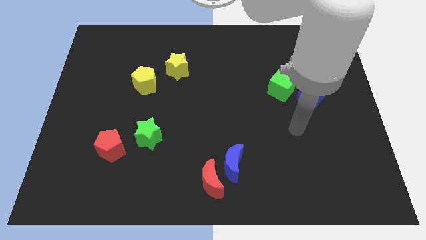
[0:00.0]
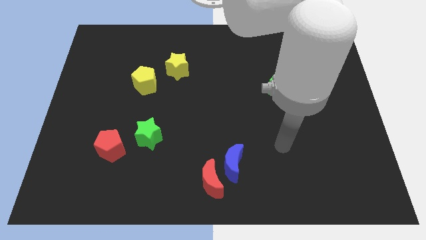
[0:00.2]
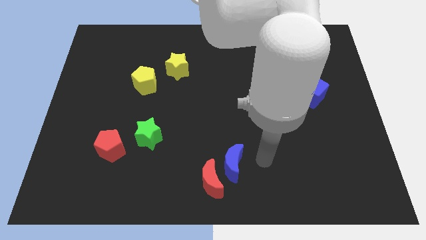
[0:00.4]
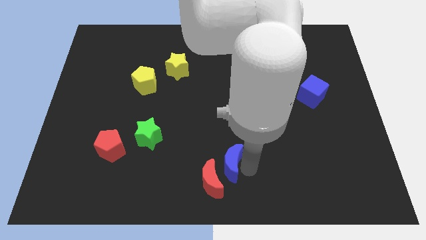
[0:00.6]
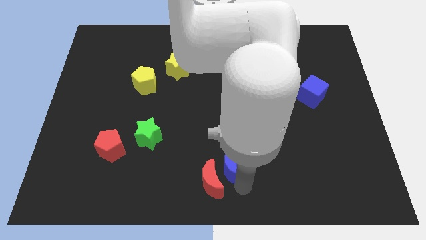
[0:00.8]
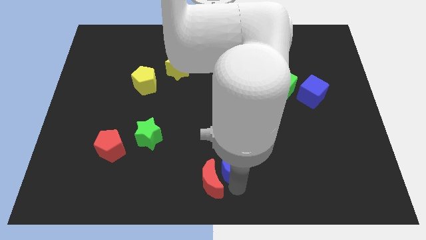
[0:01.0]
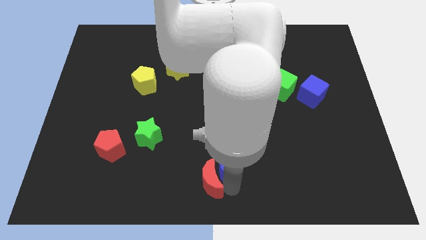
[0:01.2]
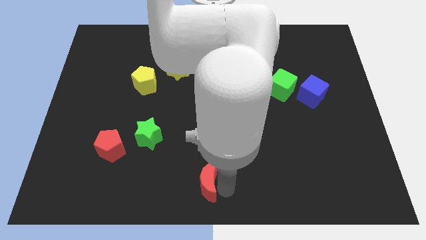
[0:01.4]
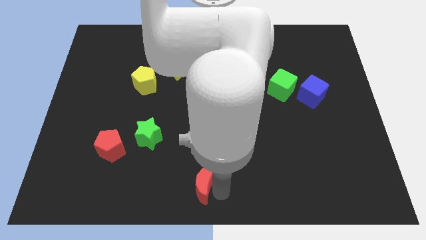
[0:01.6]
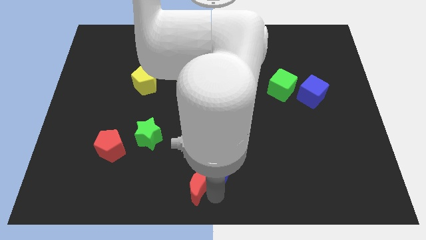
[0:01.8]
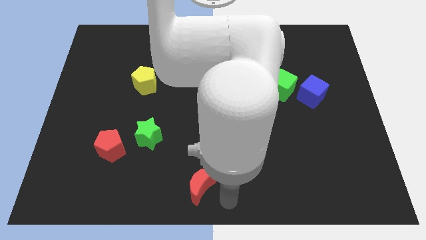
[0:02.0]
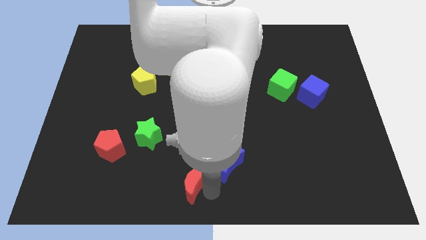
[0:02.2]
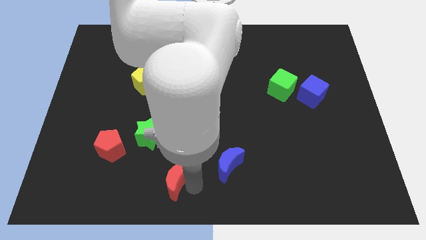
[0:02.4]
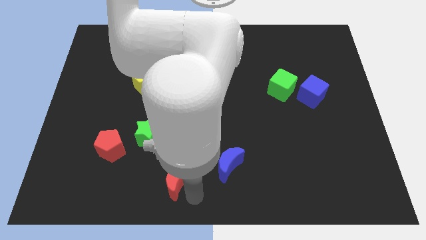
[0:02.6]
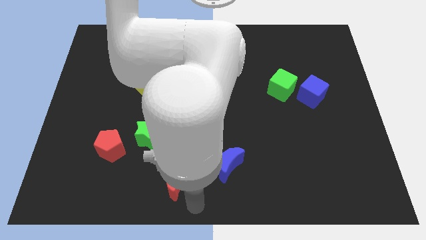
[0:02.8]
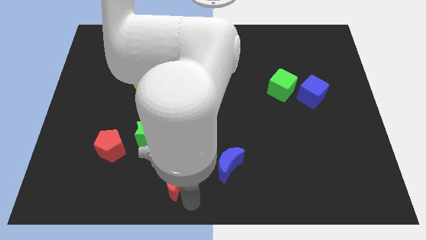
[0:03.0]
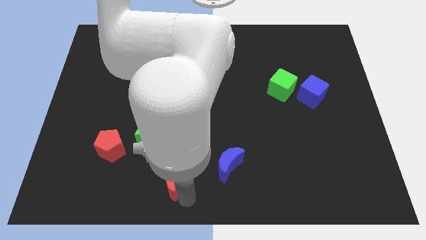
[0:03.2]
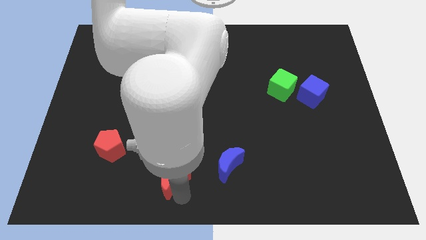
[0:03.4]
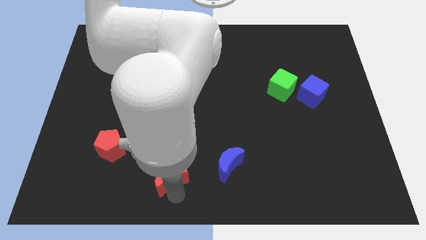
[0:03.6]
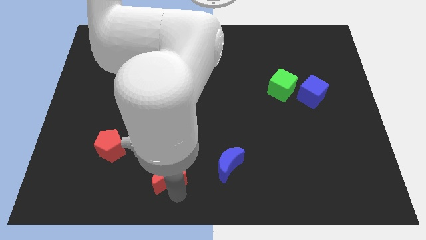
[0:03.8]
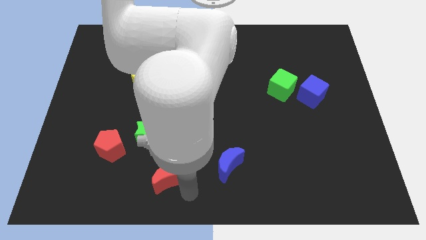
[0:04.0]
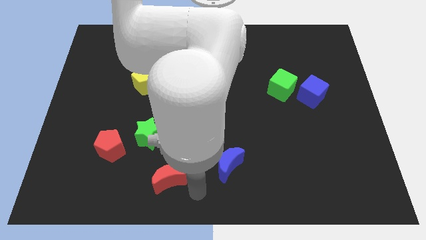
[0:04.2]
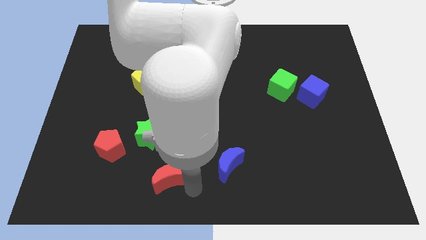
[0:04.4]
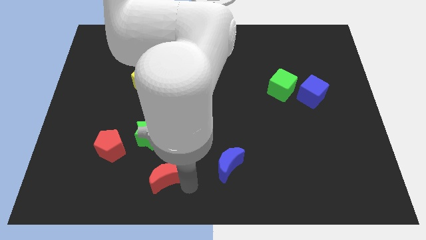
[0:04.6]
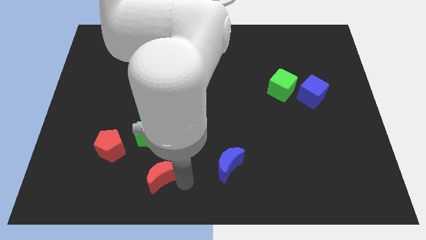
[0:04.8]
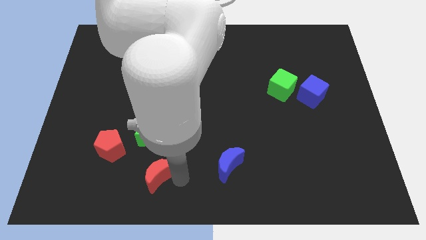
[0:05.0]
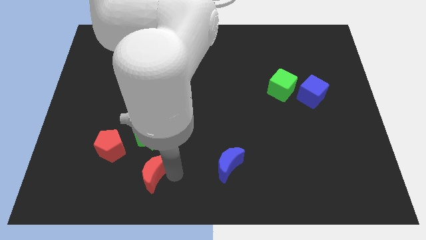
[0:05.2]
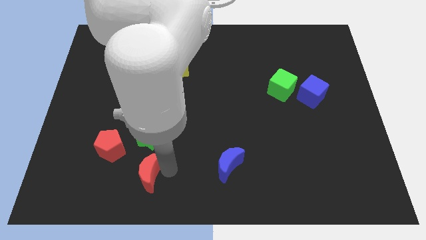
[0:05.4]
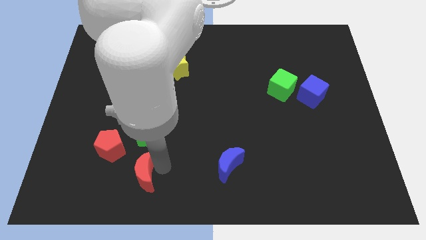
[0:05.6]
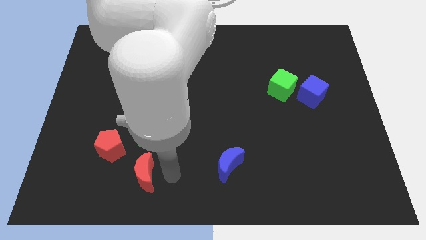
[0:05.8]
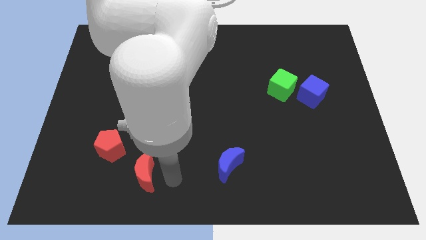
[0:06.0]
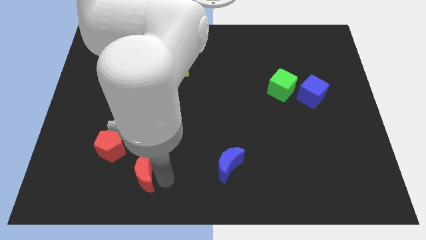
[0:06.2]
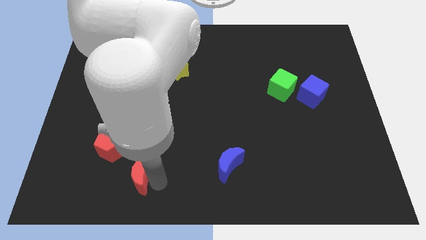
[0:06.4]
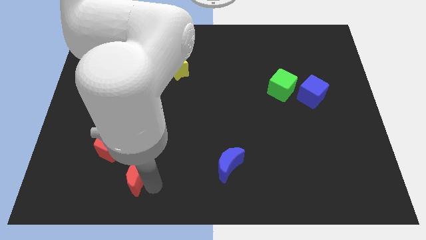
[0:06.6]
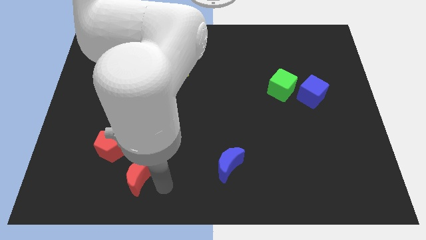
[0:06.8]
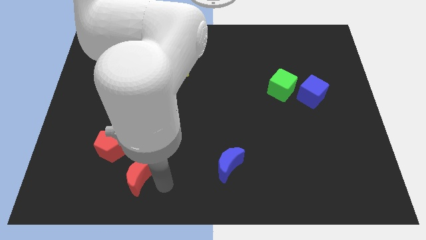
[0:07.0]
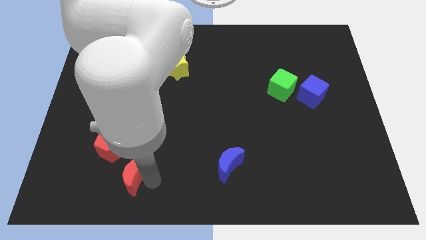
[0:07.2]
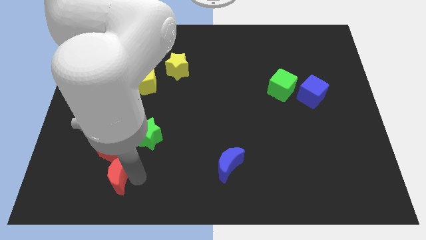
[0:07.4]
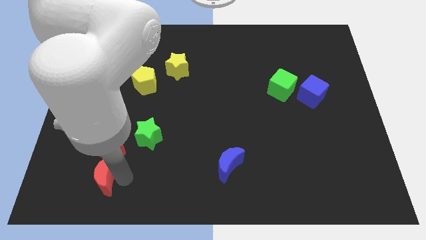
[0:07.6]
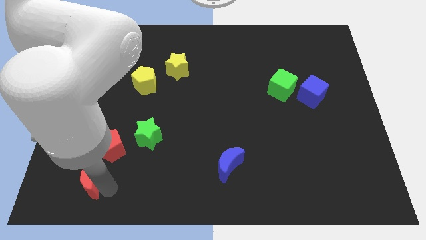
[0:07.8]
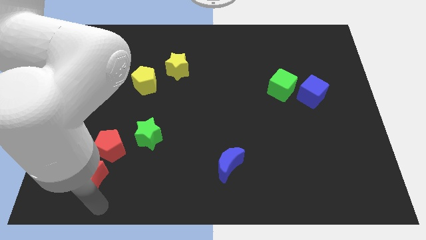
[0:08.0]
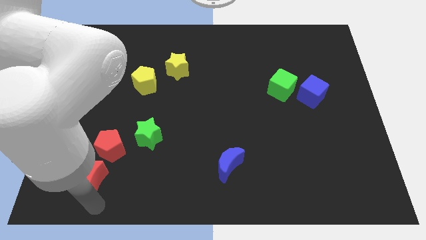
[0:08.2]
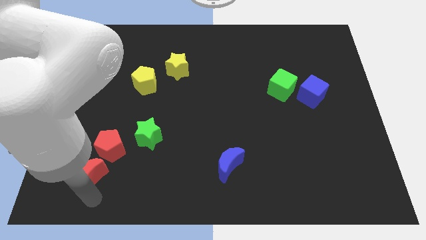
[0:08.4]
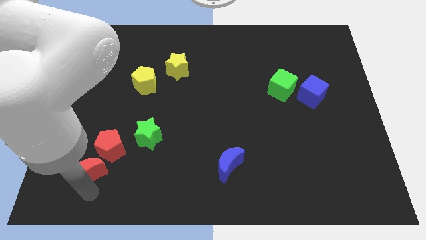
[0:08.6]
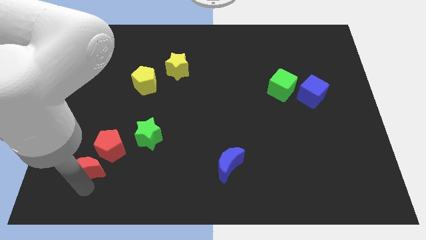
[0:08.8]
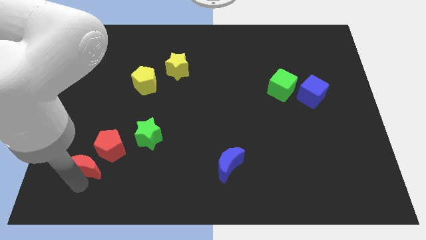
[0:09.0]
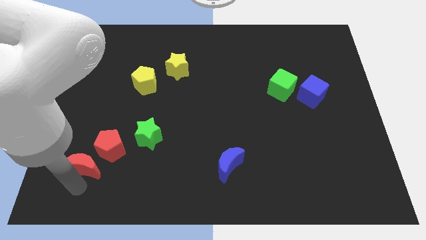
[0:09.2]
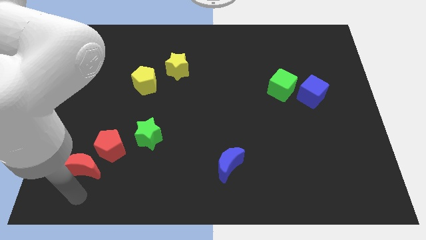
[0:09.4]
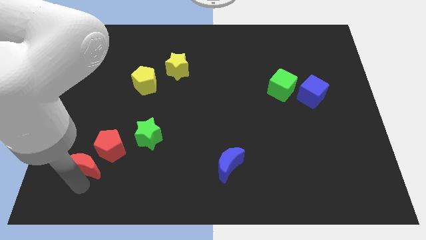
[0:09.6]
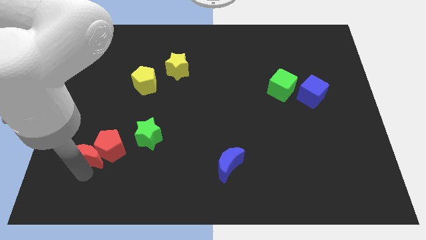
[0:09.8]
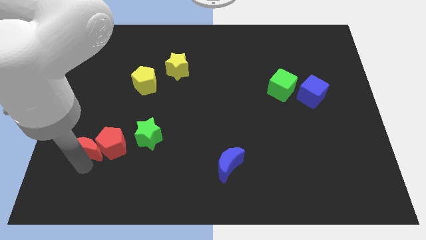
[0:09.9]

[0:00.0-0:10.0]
put the red moon left of the green star

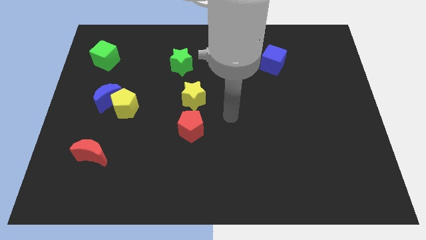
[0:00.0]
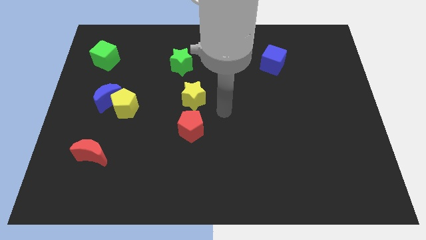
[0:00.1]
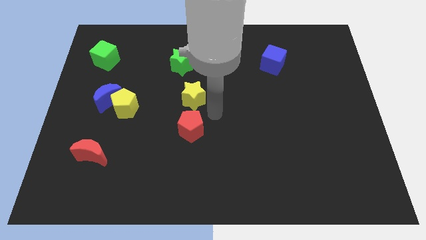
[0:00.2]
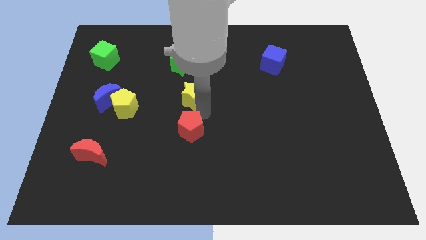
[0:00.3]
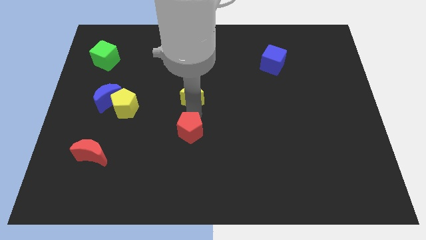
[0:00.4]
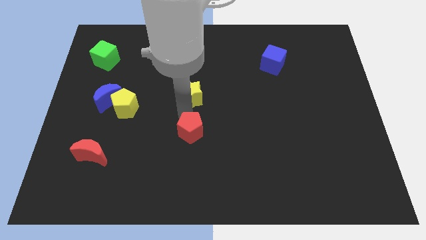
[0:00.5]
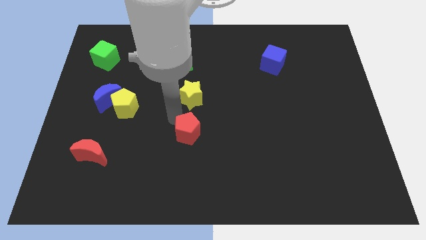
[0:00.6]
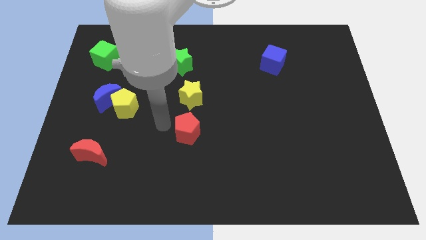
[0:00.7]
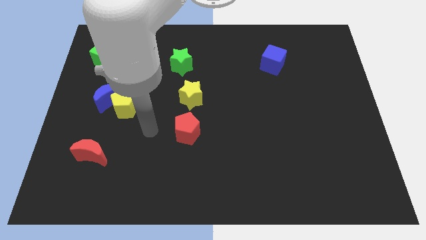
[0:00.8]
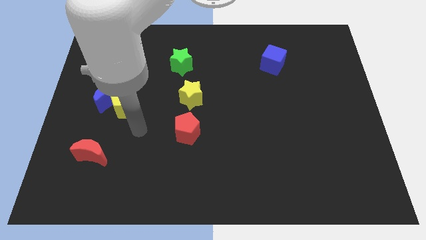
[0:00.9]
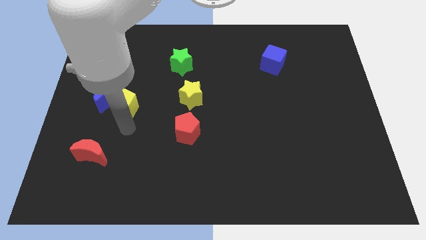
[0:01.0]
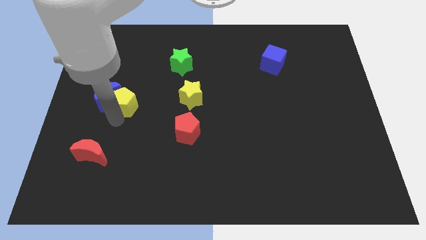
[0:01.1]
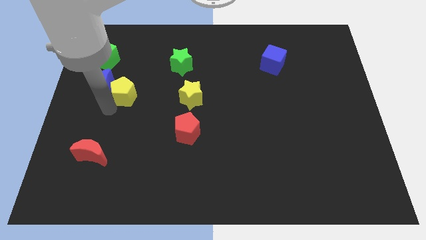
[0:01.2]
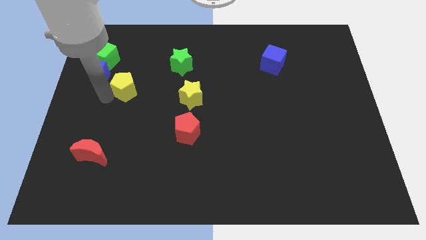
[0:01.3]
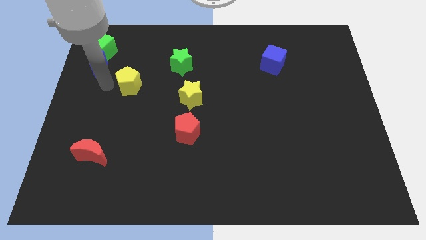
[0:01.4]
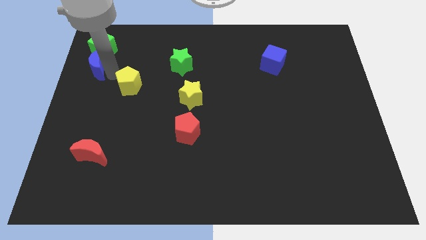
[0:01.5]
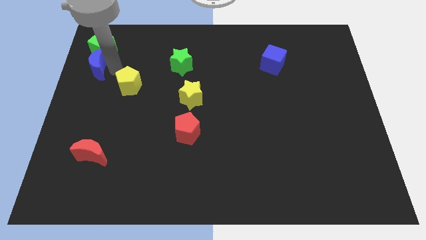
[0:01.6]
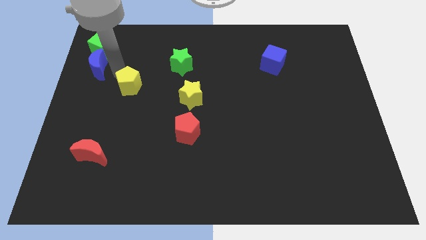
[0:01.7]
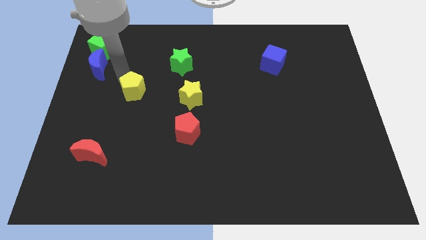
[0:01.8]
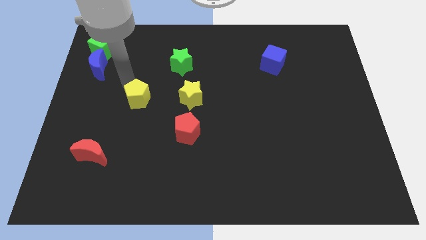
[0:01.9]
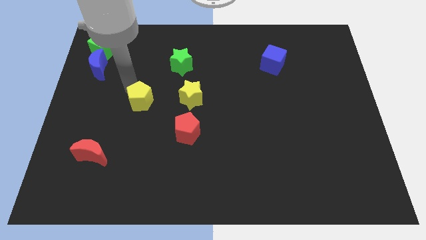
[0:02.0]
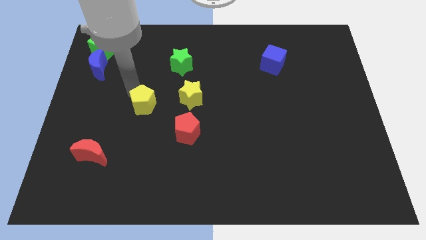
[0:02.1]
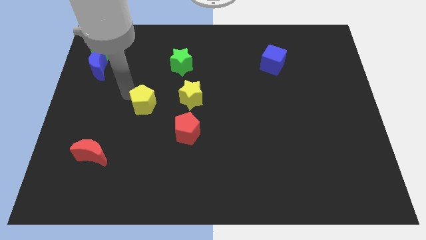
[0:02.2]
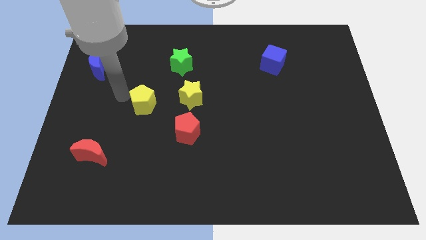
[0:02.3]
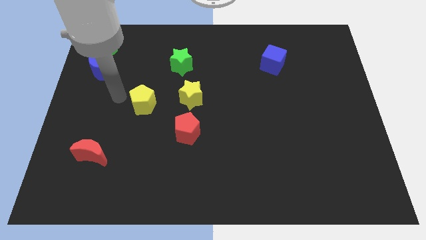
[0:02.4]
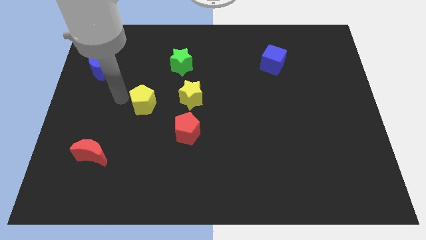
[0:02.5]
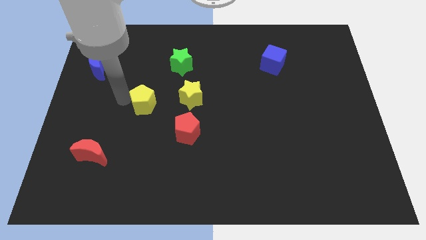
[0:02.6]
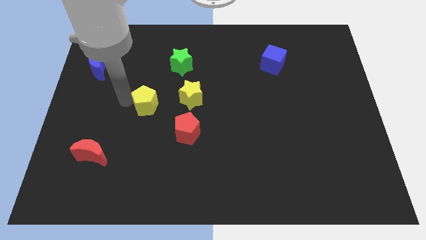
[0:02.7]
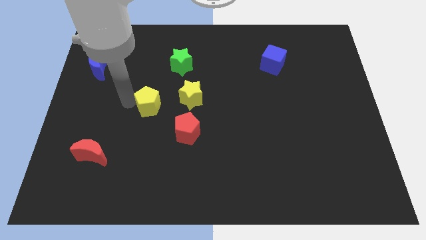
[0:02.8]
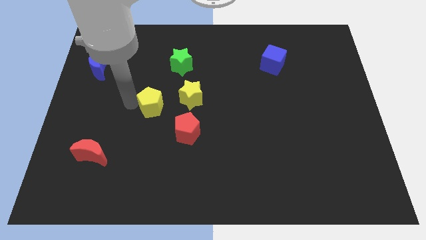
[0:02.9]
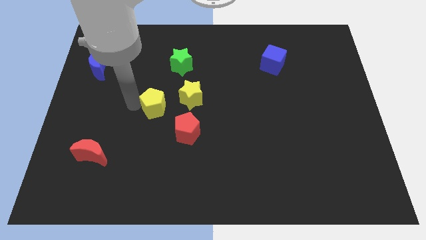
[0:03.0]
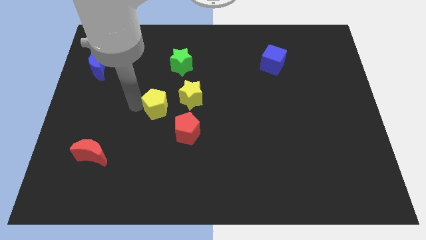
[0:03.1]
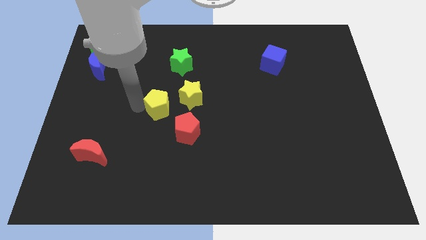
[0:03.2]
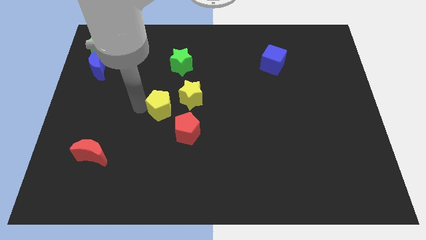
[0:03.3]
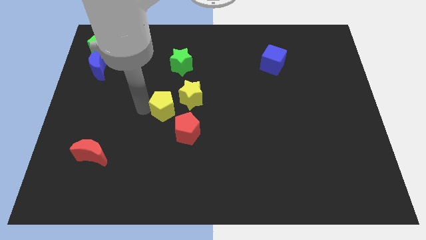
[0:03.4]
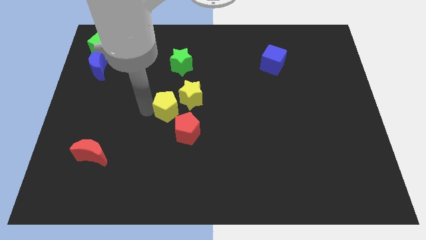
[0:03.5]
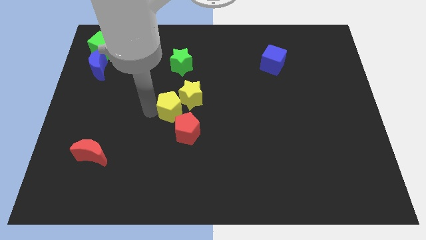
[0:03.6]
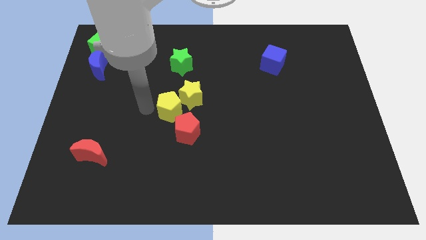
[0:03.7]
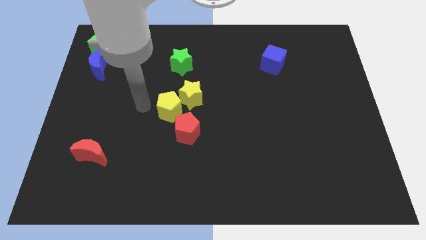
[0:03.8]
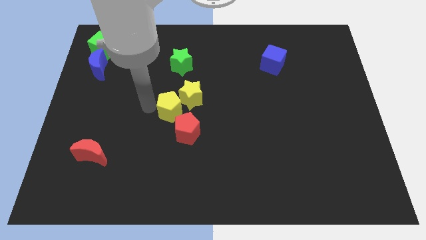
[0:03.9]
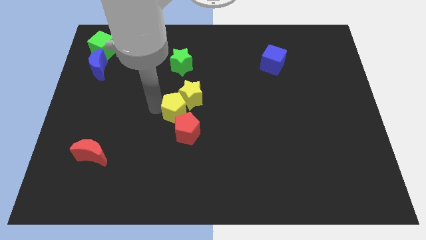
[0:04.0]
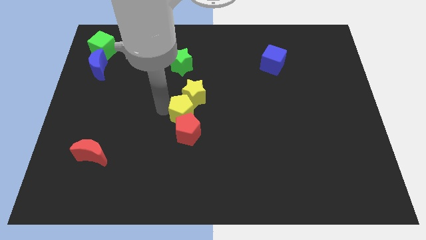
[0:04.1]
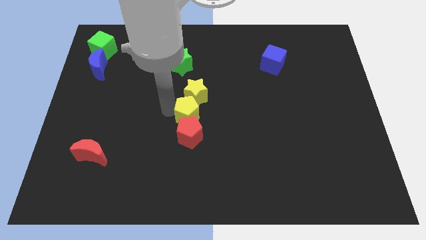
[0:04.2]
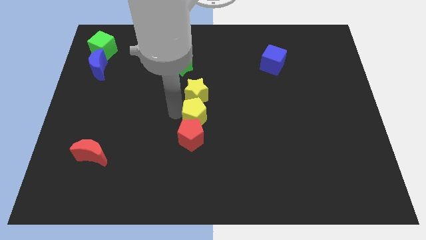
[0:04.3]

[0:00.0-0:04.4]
put the yellow pentagon to the bottom right of the yellow star
